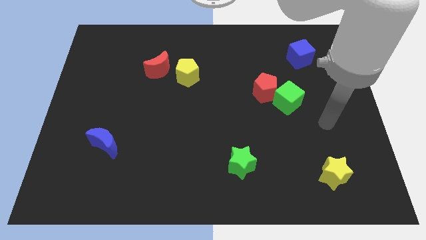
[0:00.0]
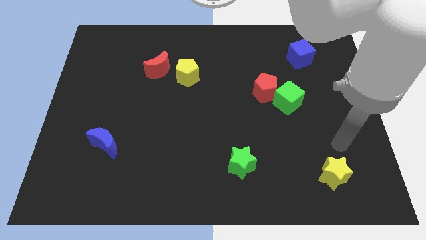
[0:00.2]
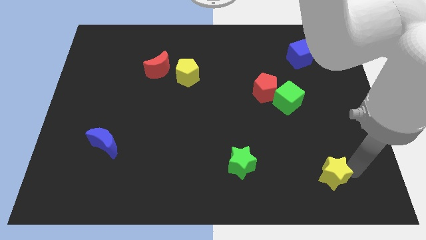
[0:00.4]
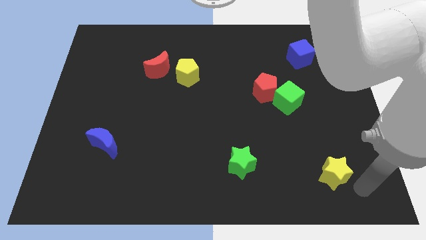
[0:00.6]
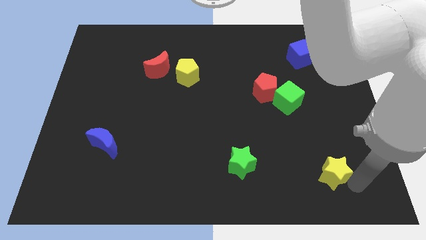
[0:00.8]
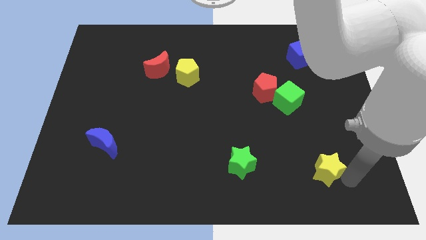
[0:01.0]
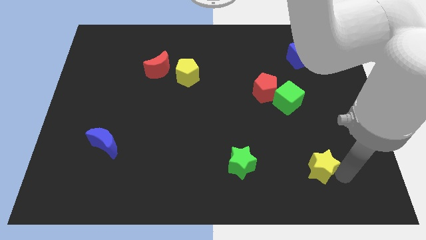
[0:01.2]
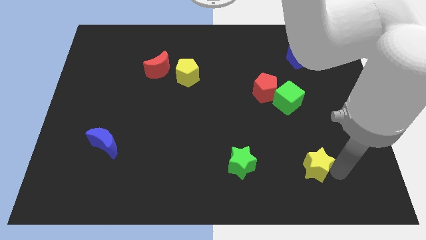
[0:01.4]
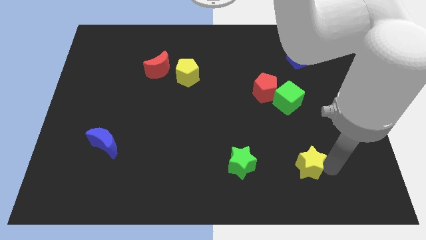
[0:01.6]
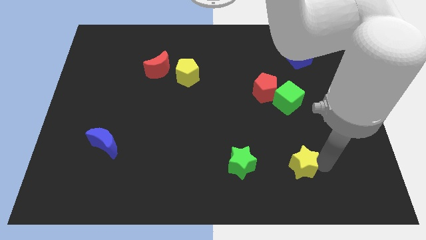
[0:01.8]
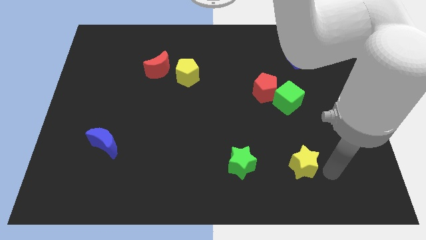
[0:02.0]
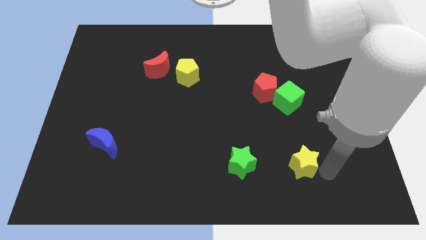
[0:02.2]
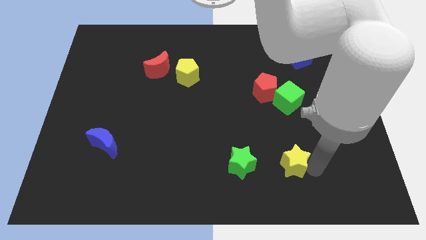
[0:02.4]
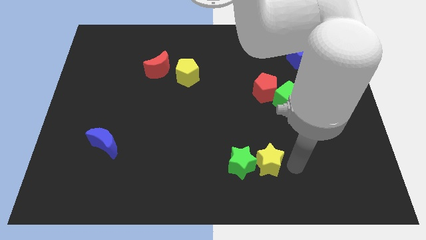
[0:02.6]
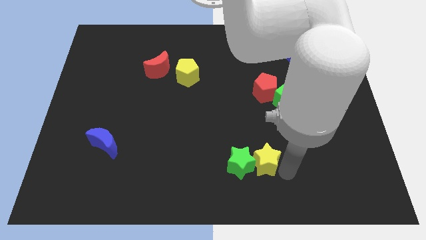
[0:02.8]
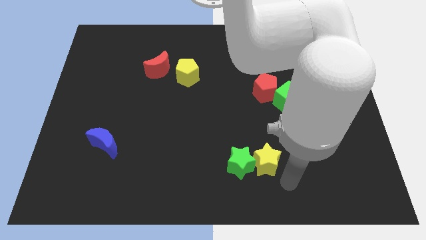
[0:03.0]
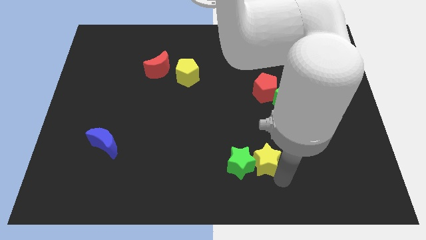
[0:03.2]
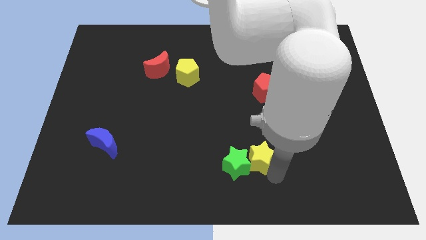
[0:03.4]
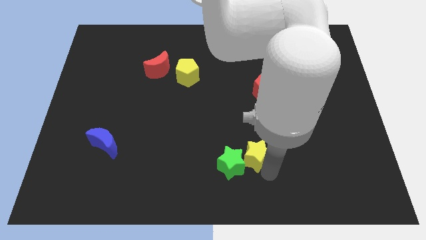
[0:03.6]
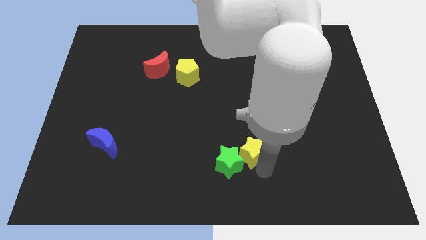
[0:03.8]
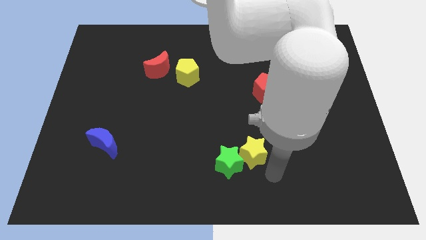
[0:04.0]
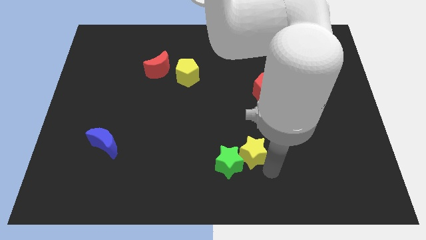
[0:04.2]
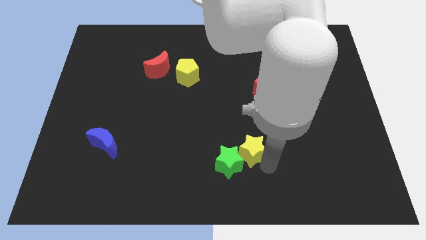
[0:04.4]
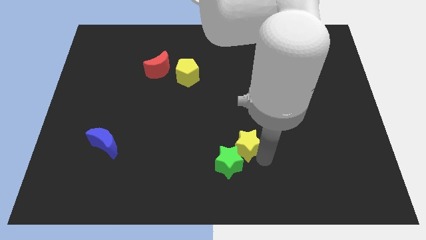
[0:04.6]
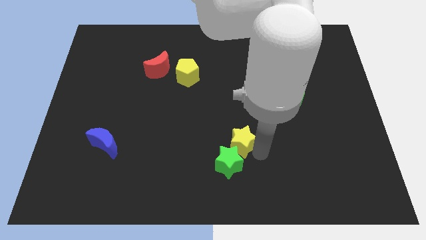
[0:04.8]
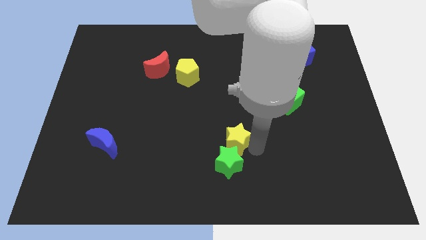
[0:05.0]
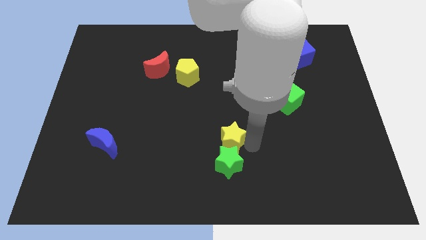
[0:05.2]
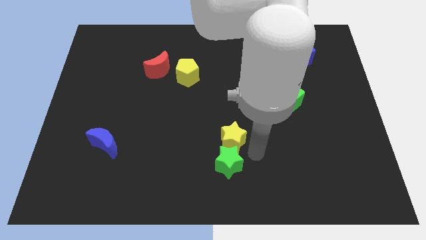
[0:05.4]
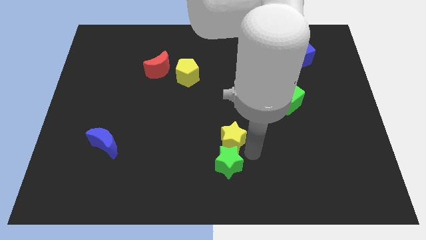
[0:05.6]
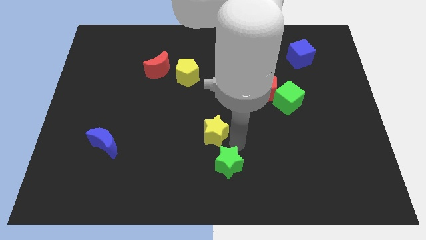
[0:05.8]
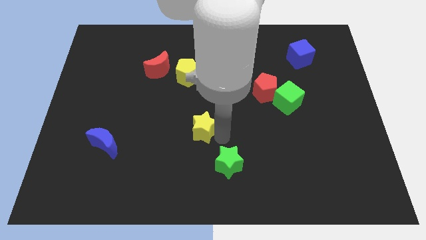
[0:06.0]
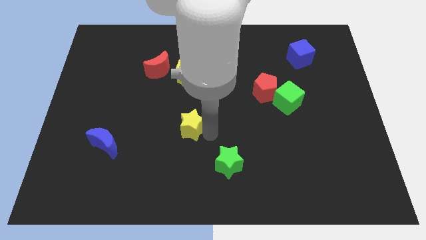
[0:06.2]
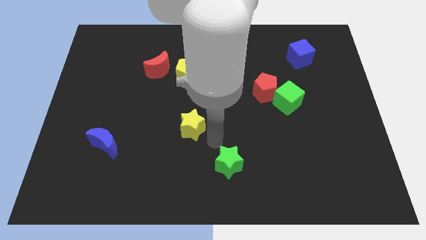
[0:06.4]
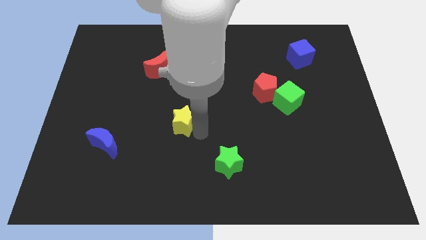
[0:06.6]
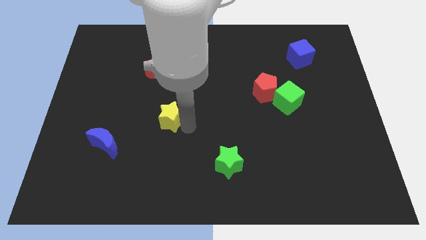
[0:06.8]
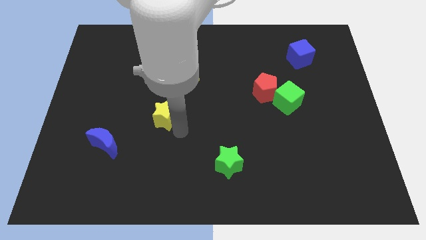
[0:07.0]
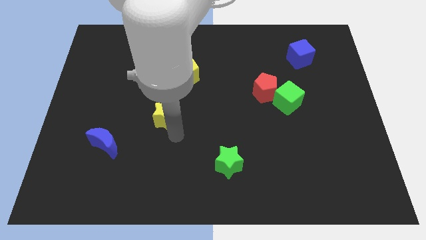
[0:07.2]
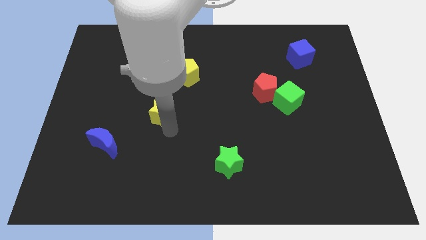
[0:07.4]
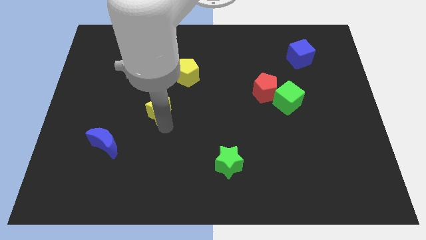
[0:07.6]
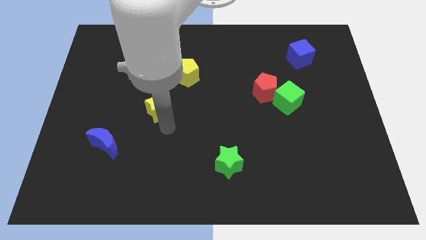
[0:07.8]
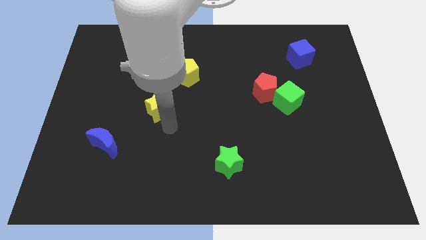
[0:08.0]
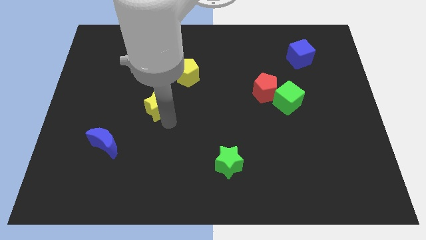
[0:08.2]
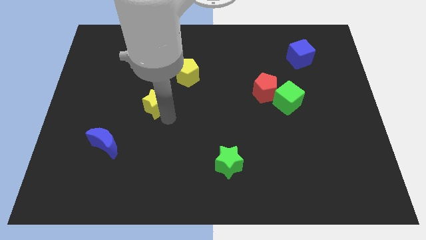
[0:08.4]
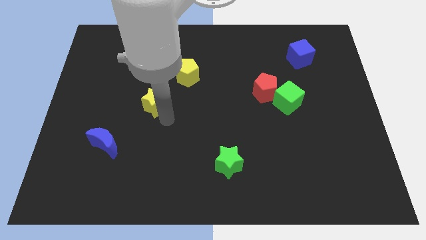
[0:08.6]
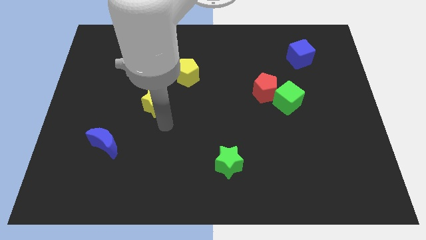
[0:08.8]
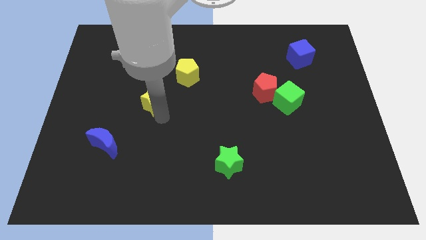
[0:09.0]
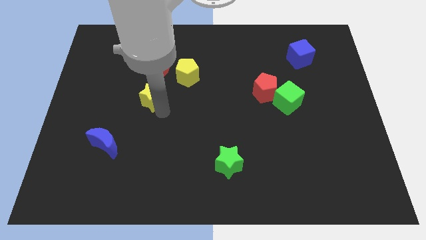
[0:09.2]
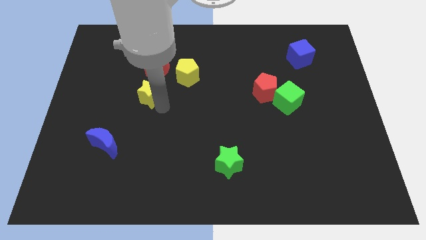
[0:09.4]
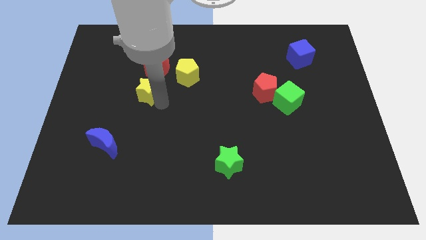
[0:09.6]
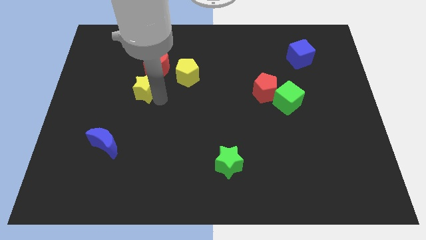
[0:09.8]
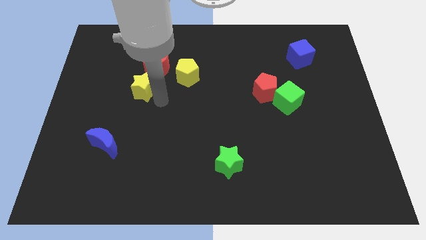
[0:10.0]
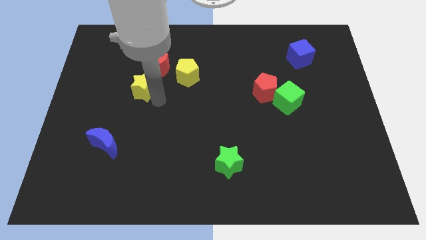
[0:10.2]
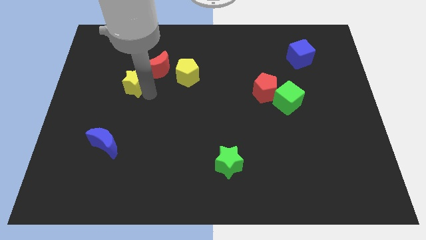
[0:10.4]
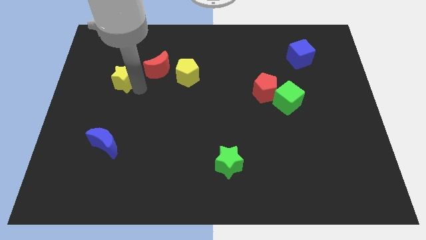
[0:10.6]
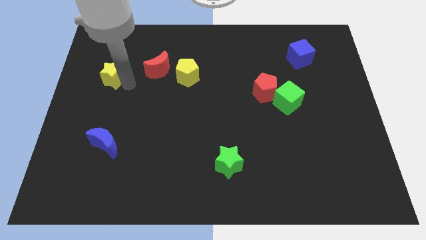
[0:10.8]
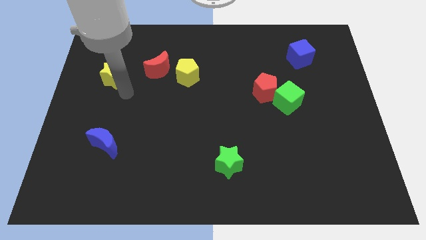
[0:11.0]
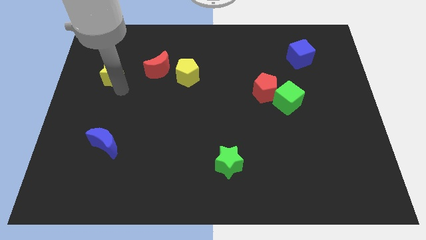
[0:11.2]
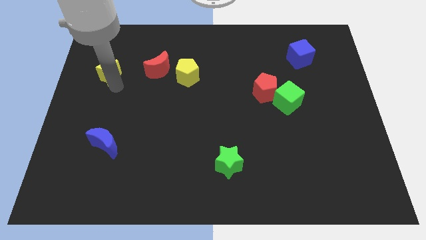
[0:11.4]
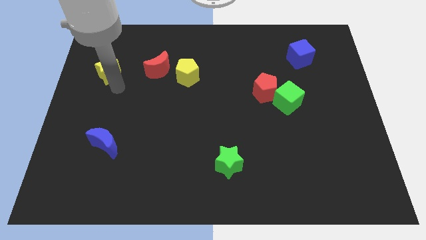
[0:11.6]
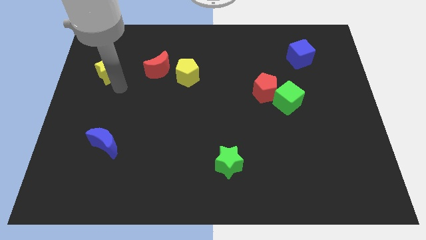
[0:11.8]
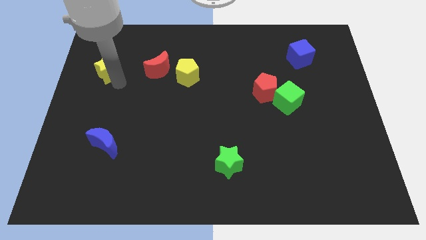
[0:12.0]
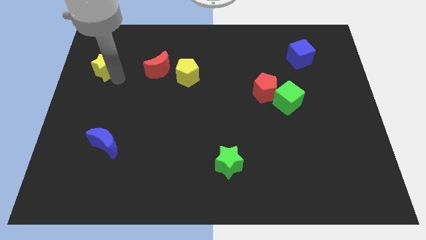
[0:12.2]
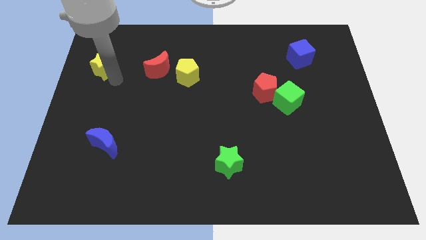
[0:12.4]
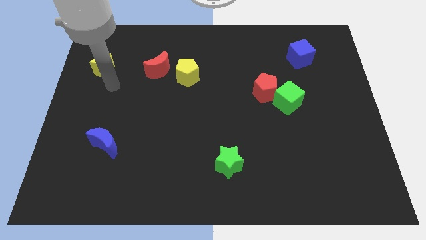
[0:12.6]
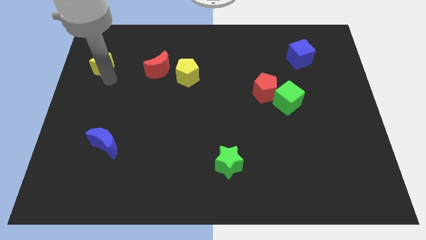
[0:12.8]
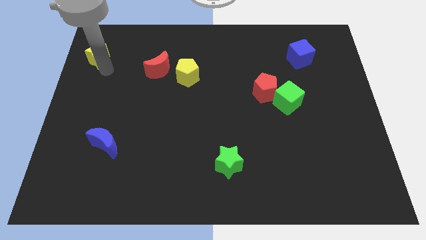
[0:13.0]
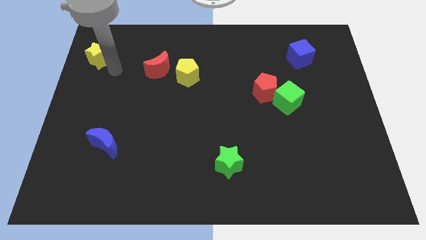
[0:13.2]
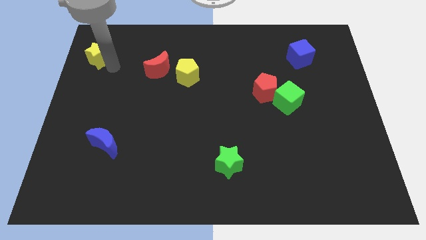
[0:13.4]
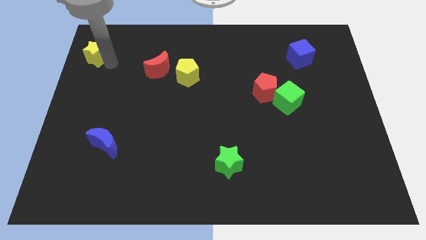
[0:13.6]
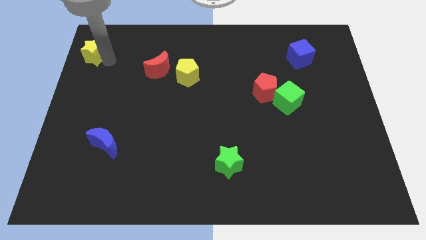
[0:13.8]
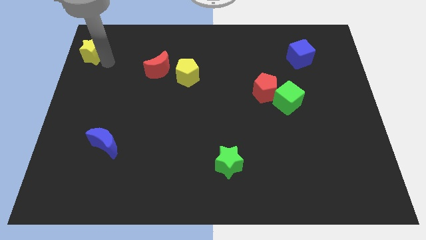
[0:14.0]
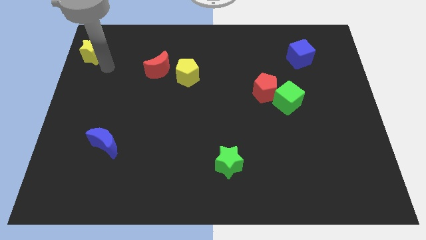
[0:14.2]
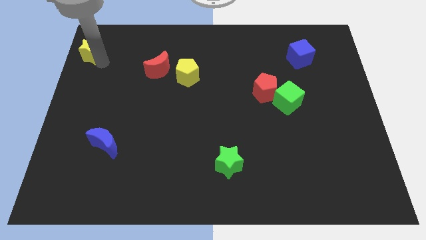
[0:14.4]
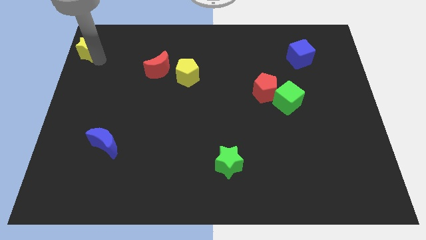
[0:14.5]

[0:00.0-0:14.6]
push the yellow star to the upper left corner
